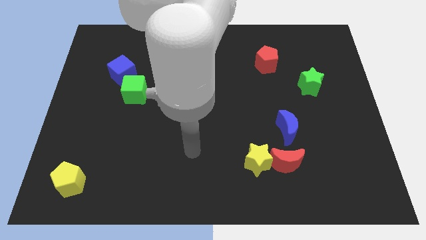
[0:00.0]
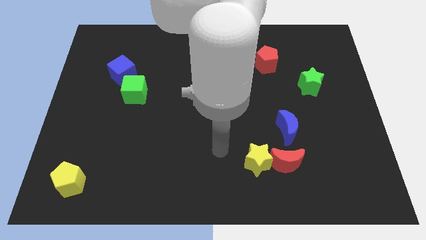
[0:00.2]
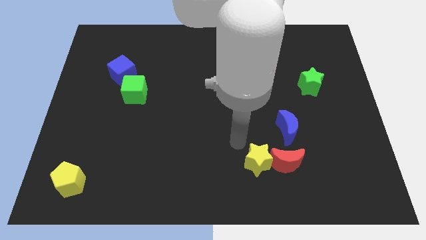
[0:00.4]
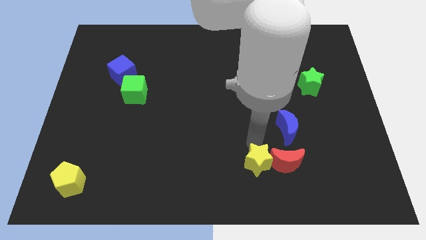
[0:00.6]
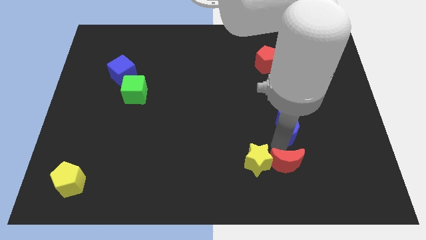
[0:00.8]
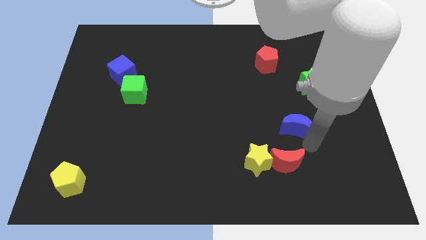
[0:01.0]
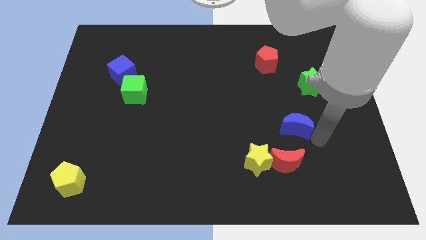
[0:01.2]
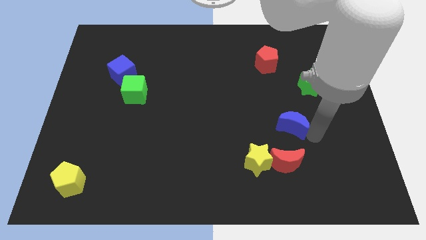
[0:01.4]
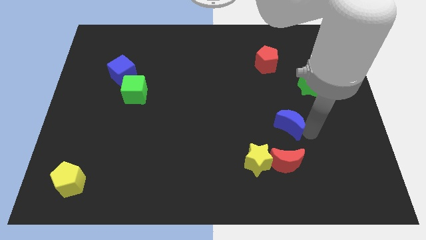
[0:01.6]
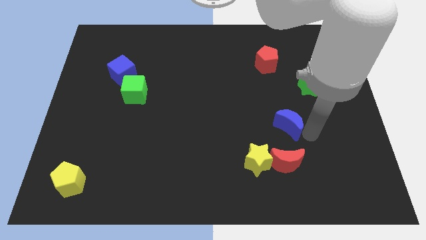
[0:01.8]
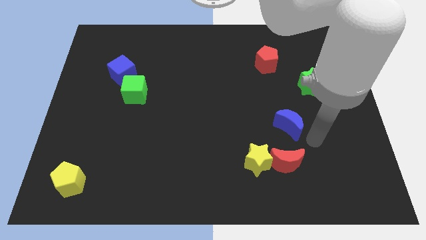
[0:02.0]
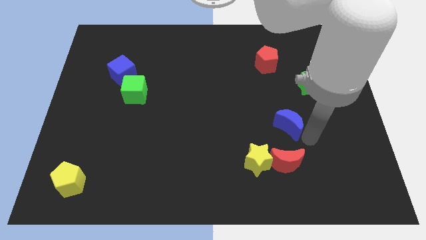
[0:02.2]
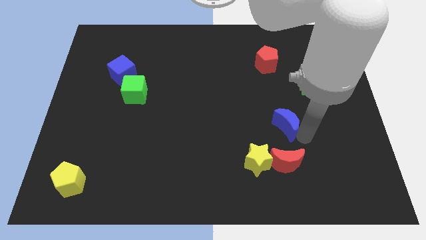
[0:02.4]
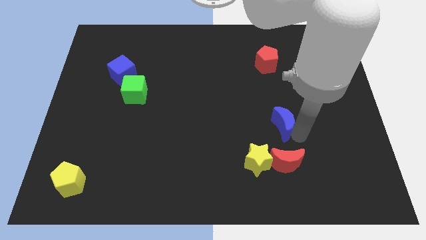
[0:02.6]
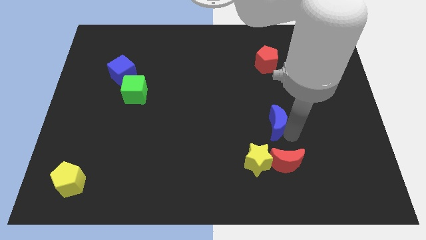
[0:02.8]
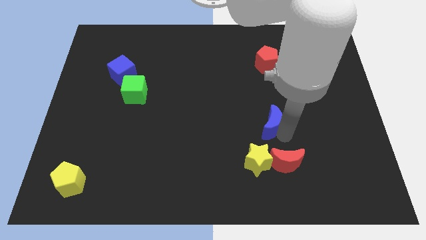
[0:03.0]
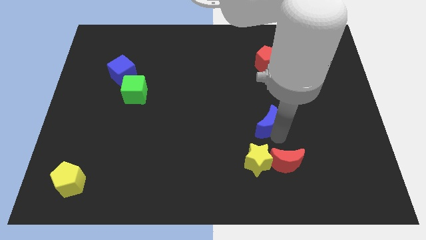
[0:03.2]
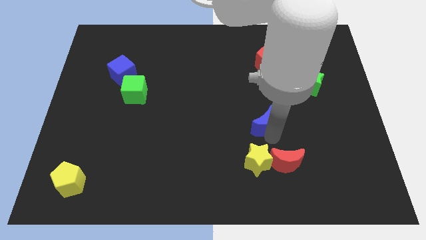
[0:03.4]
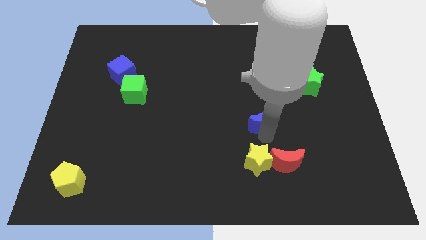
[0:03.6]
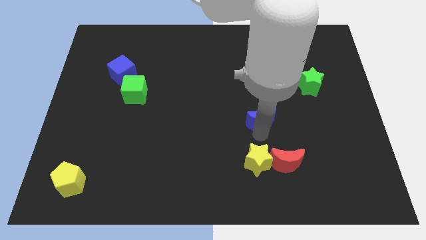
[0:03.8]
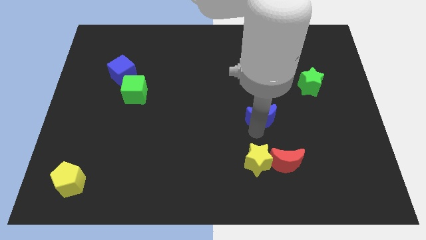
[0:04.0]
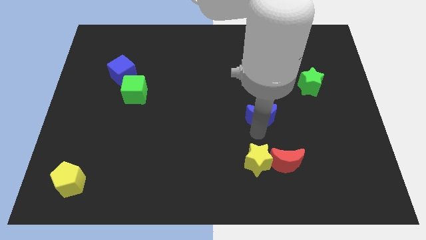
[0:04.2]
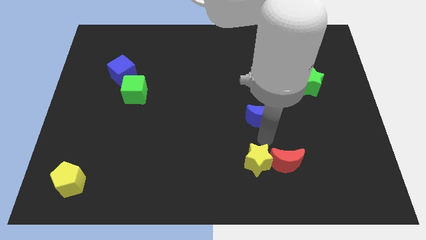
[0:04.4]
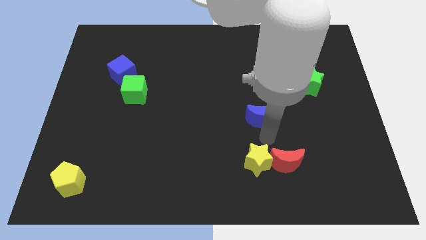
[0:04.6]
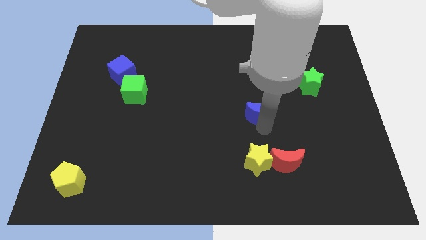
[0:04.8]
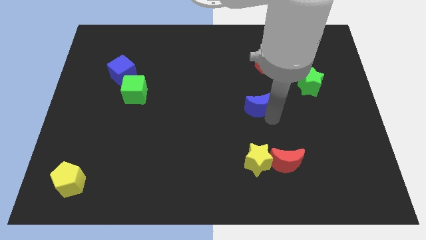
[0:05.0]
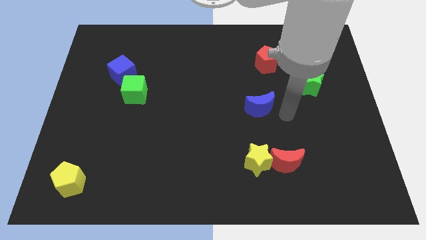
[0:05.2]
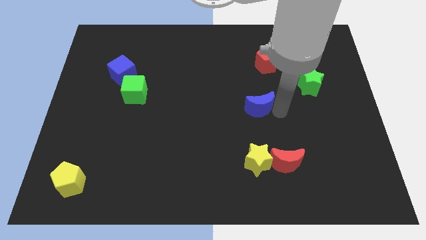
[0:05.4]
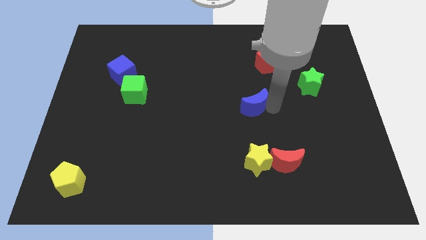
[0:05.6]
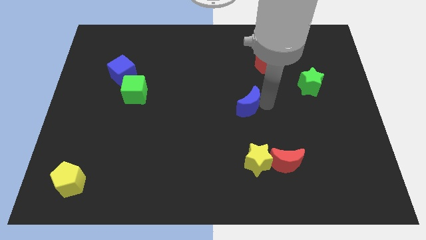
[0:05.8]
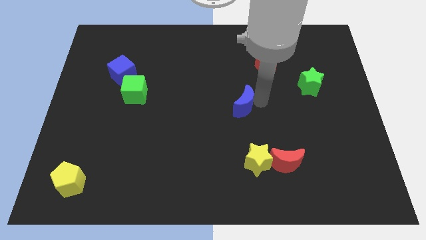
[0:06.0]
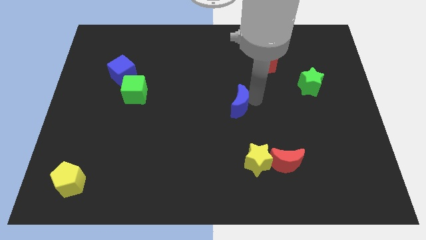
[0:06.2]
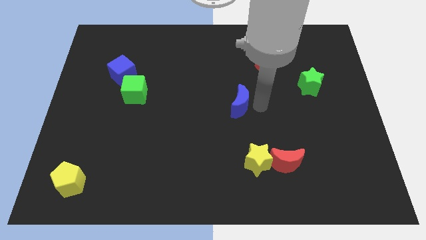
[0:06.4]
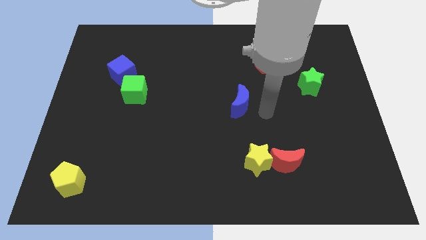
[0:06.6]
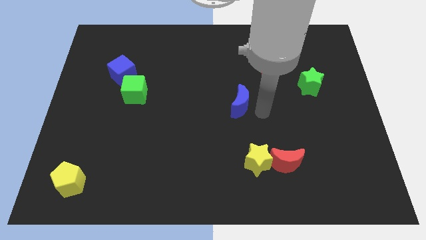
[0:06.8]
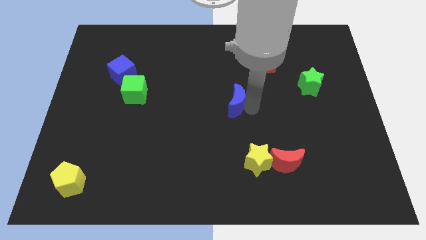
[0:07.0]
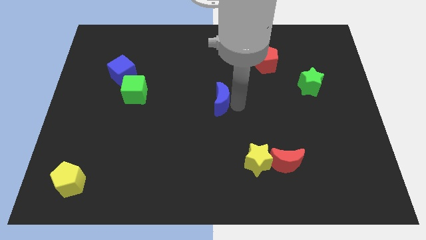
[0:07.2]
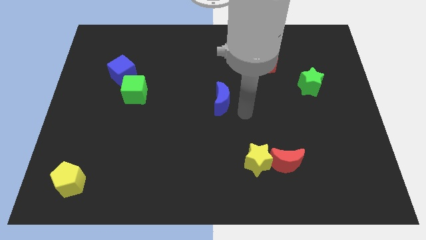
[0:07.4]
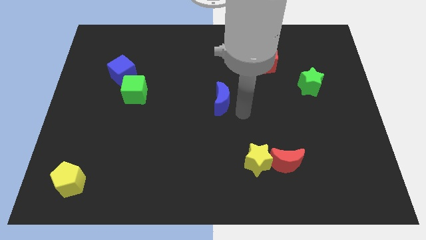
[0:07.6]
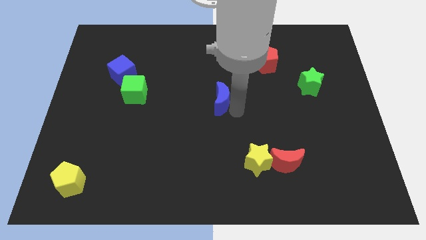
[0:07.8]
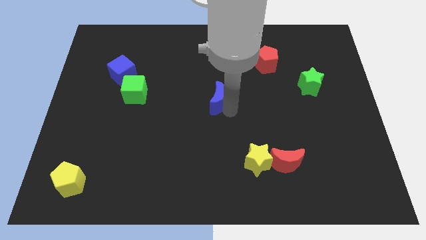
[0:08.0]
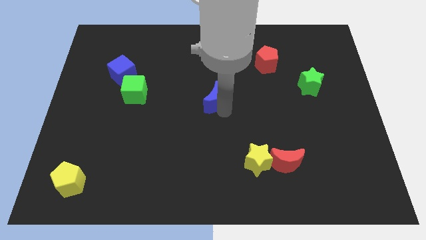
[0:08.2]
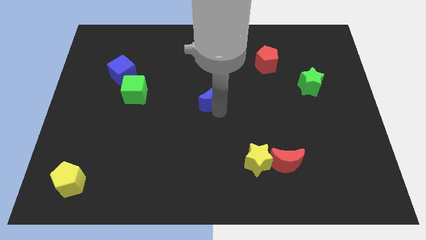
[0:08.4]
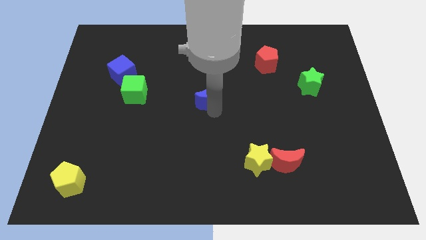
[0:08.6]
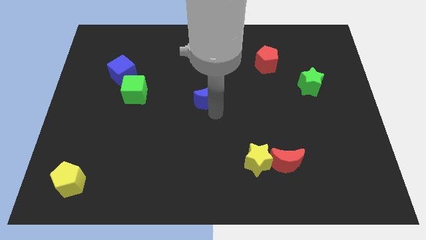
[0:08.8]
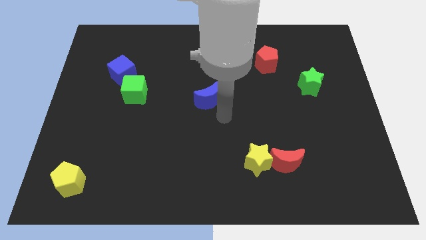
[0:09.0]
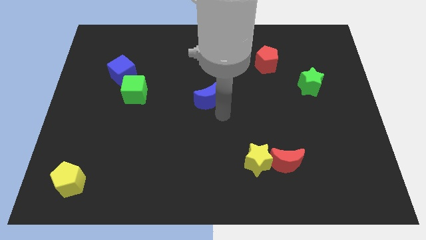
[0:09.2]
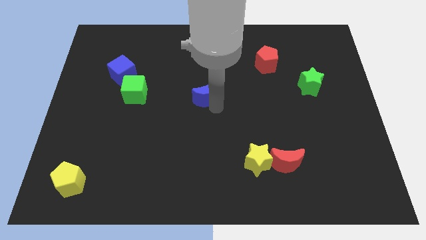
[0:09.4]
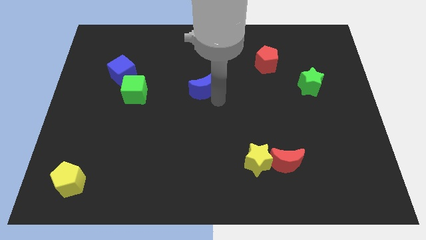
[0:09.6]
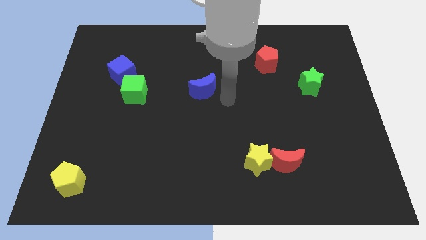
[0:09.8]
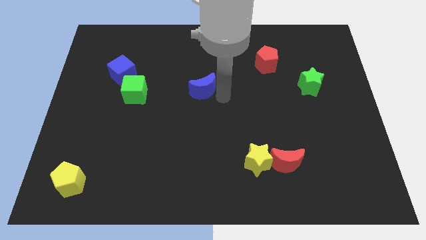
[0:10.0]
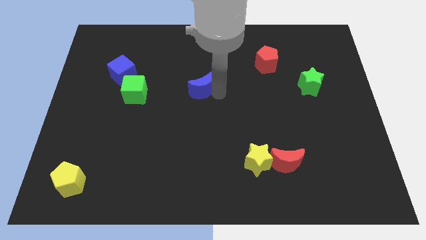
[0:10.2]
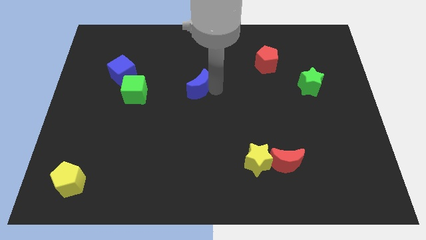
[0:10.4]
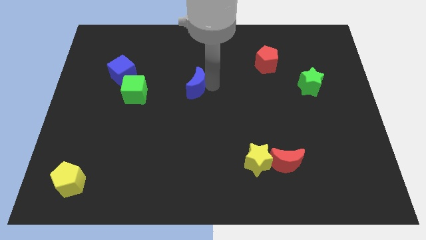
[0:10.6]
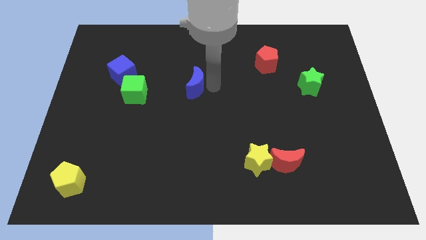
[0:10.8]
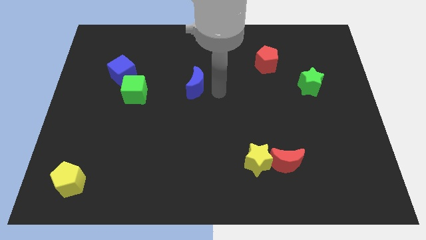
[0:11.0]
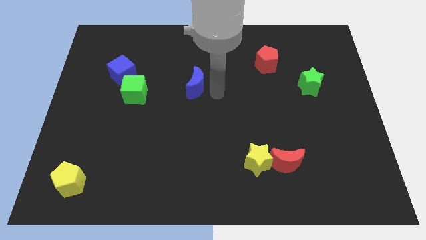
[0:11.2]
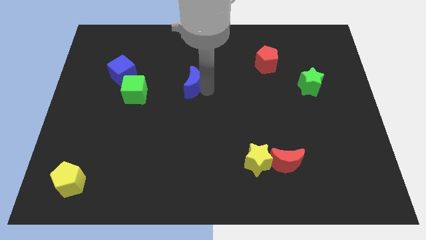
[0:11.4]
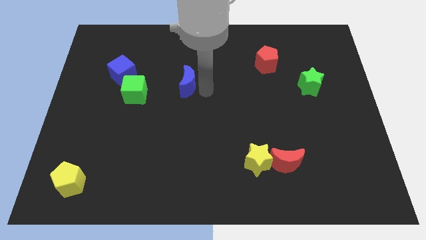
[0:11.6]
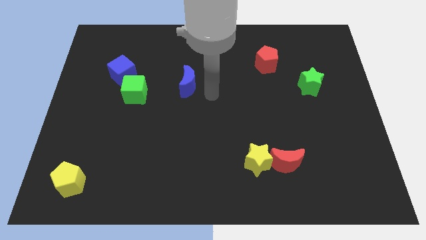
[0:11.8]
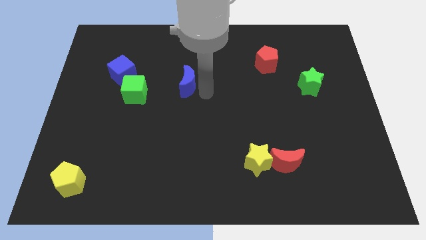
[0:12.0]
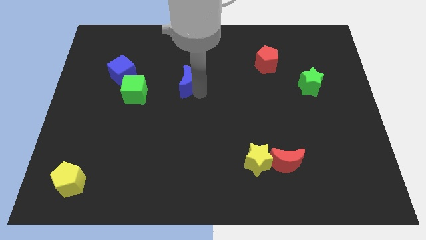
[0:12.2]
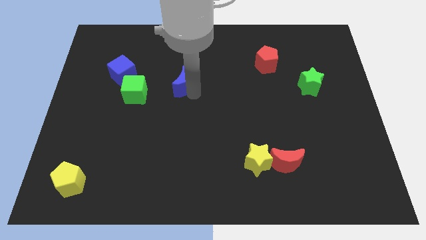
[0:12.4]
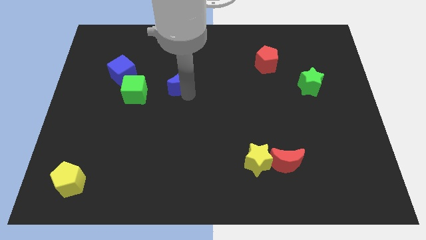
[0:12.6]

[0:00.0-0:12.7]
slide the blue moon to the right of the blue cube

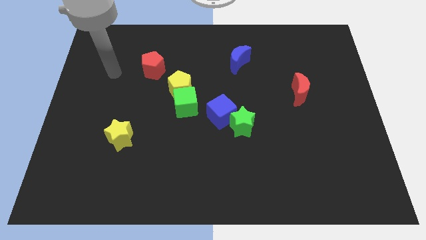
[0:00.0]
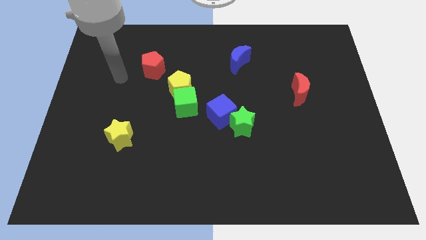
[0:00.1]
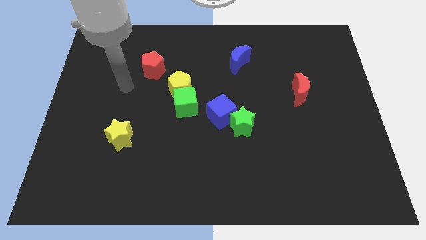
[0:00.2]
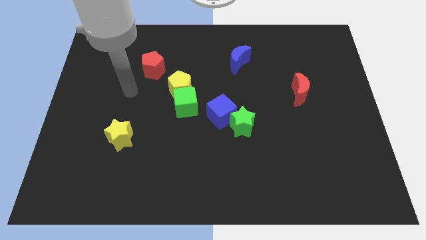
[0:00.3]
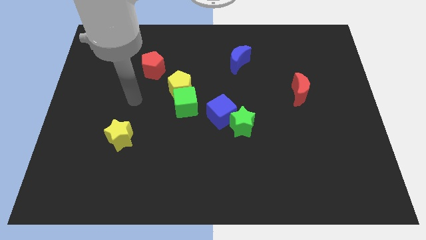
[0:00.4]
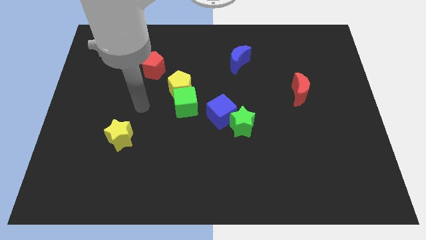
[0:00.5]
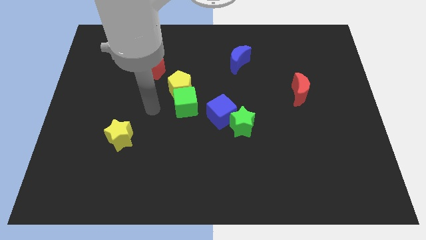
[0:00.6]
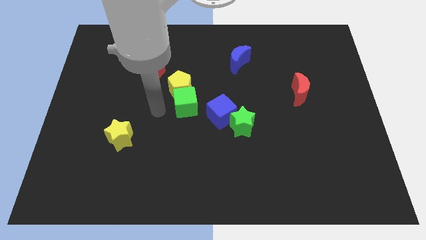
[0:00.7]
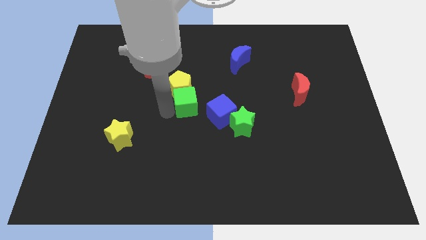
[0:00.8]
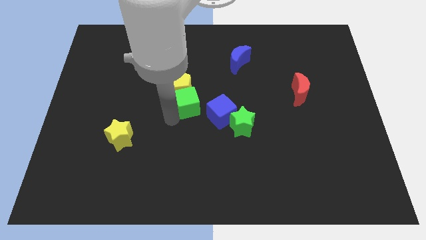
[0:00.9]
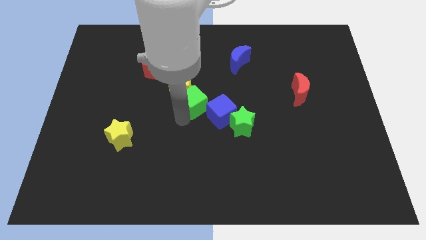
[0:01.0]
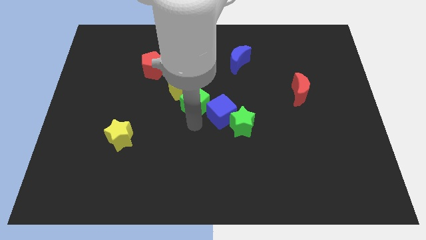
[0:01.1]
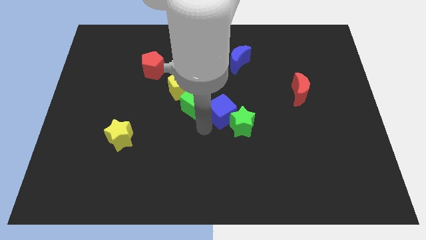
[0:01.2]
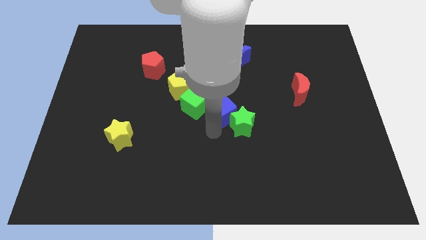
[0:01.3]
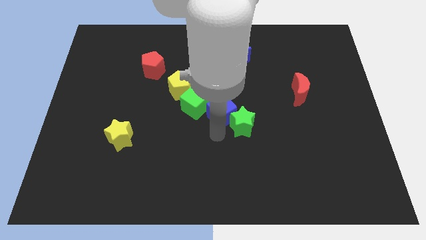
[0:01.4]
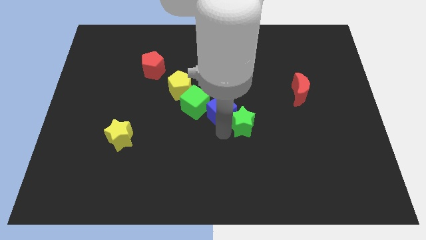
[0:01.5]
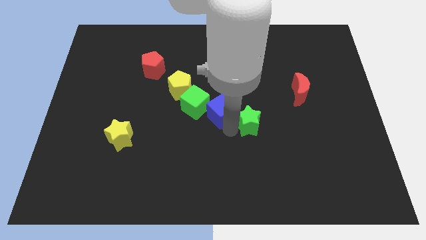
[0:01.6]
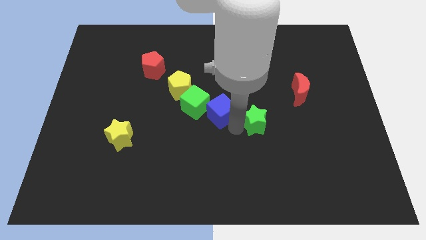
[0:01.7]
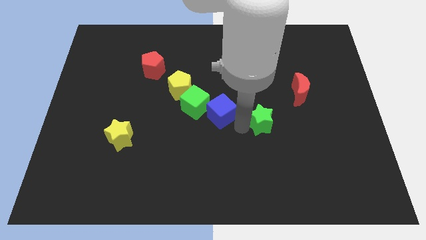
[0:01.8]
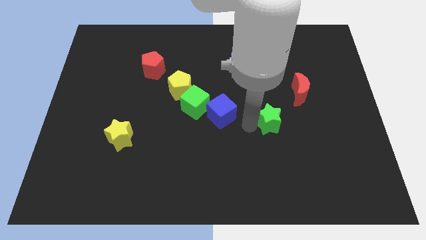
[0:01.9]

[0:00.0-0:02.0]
push the green star to the bottom left of the red moon
